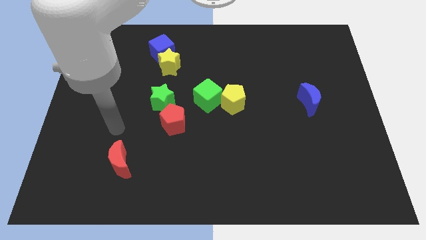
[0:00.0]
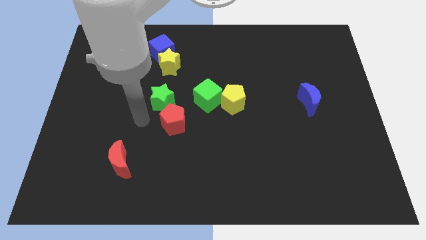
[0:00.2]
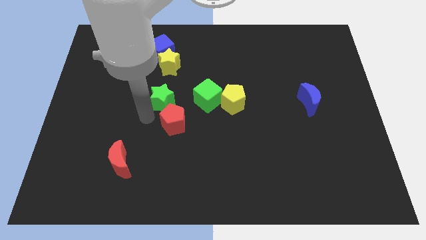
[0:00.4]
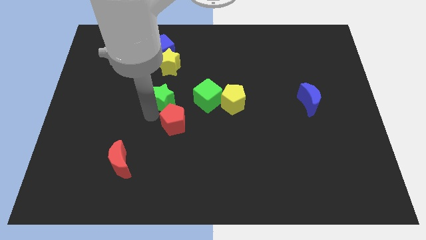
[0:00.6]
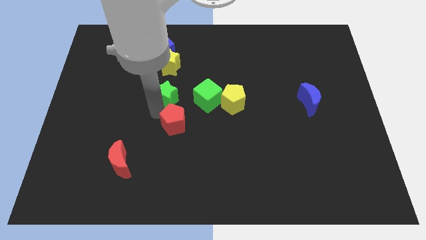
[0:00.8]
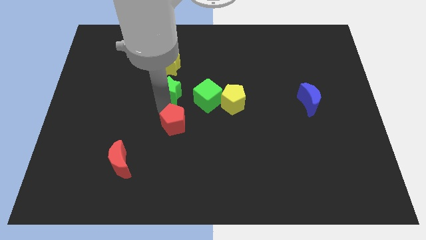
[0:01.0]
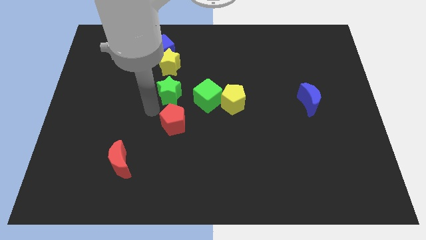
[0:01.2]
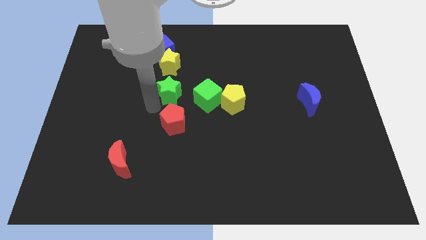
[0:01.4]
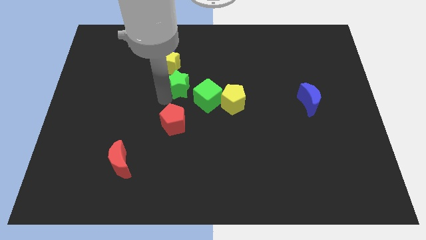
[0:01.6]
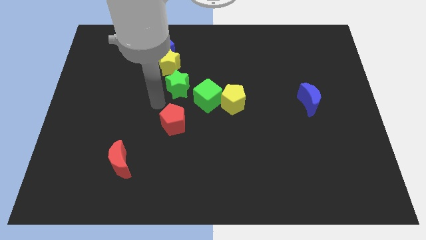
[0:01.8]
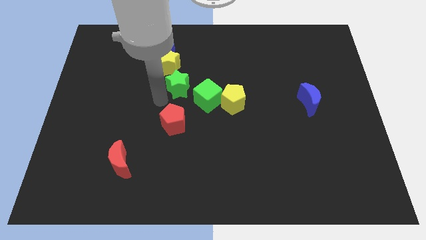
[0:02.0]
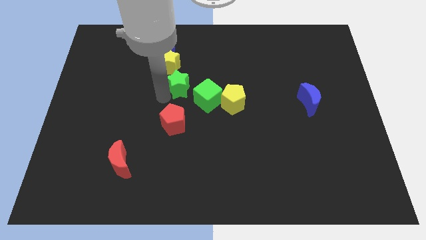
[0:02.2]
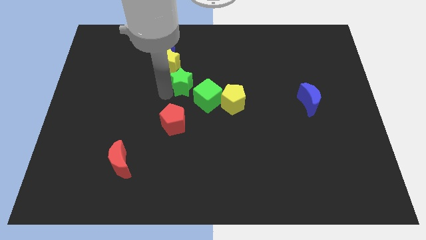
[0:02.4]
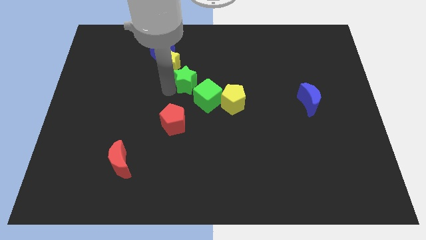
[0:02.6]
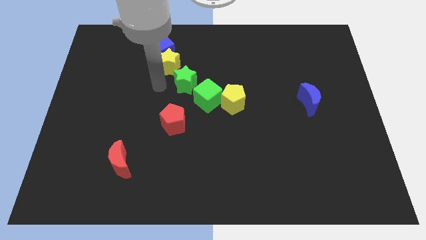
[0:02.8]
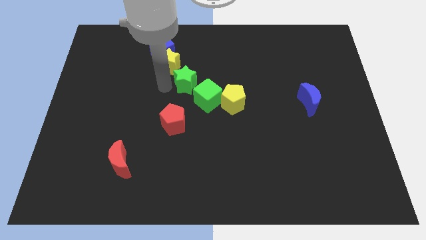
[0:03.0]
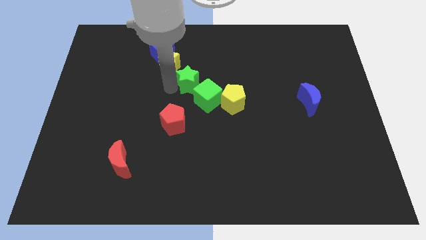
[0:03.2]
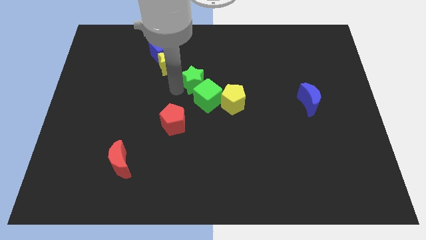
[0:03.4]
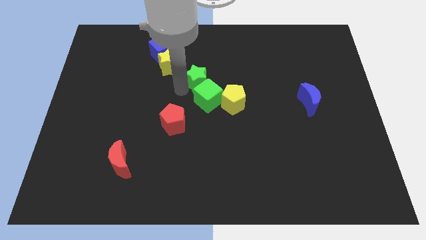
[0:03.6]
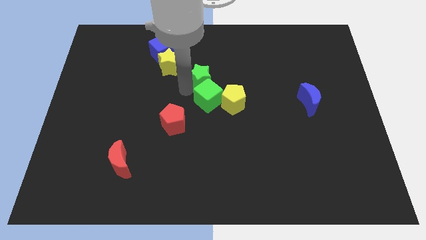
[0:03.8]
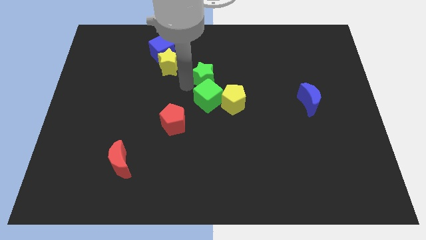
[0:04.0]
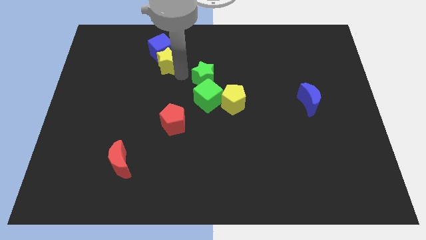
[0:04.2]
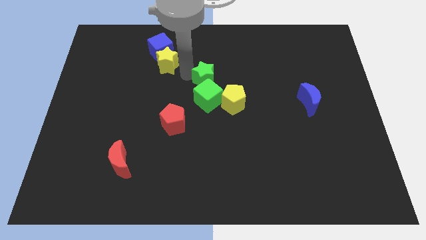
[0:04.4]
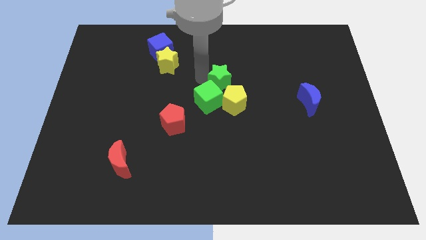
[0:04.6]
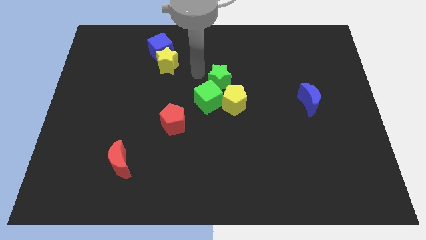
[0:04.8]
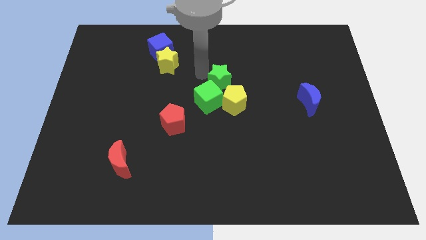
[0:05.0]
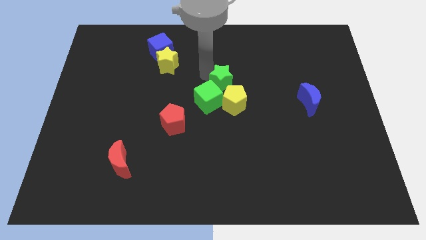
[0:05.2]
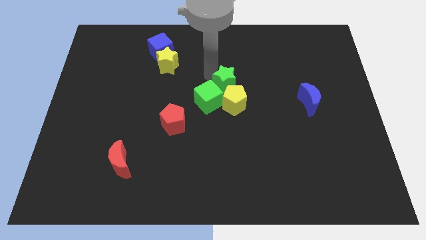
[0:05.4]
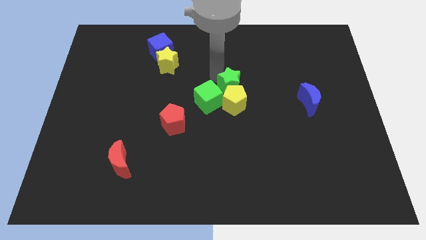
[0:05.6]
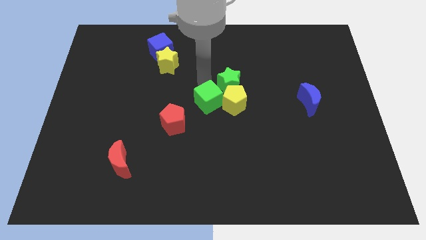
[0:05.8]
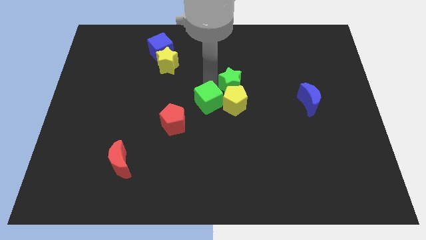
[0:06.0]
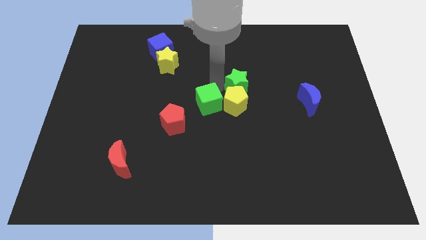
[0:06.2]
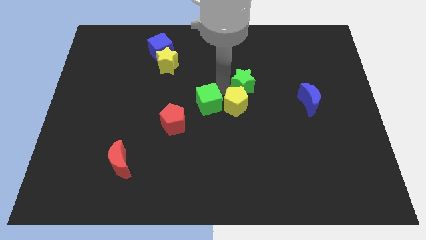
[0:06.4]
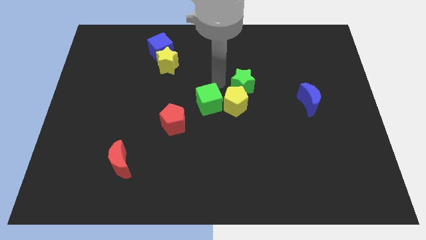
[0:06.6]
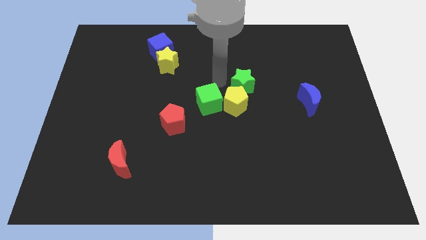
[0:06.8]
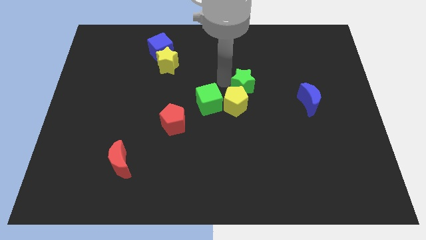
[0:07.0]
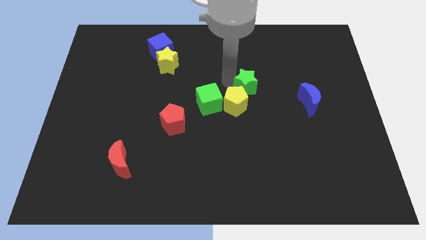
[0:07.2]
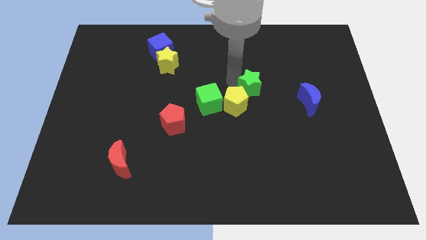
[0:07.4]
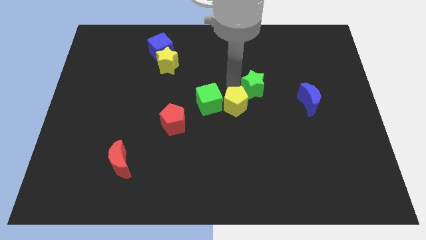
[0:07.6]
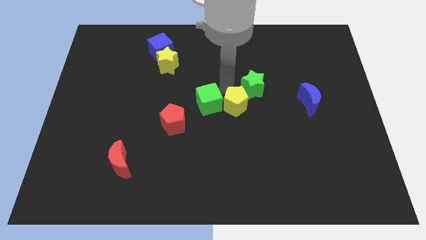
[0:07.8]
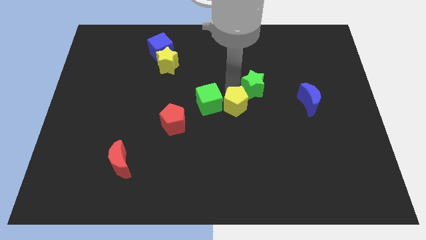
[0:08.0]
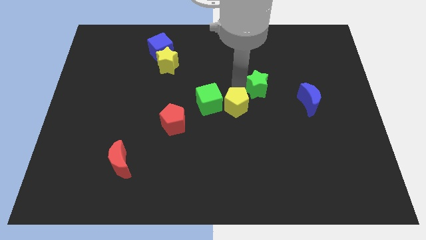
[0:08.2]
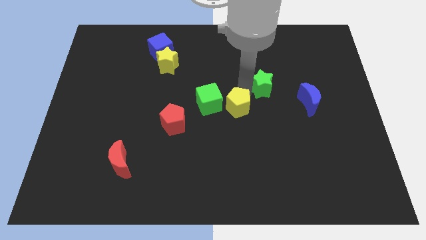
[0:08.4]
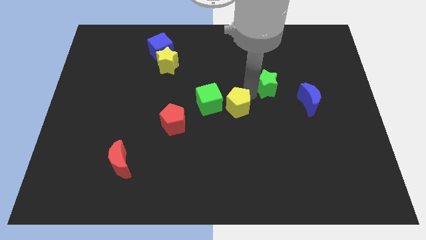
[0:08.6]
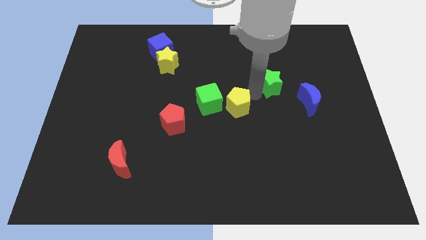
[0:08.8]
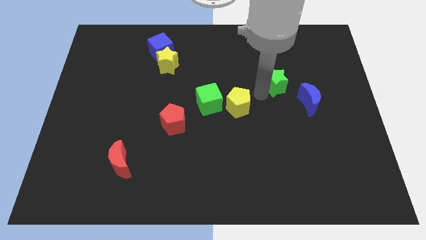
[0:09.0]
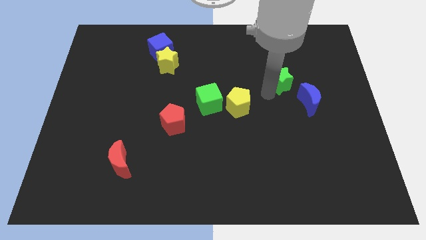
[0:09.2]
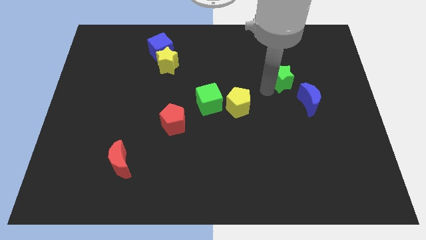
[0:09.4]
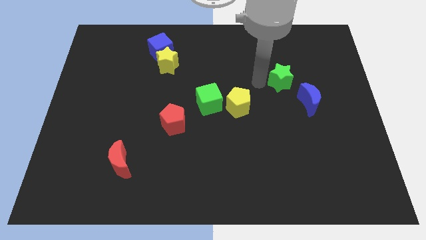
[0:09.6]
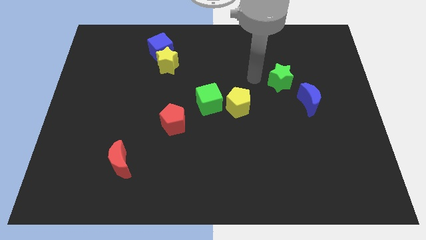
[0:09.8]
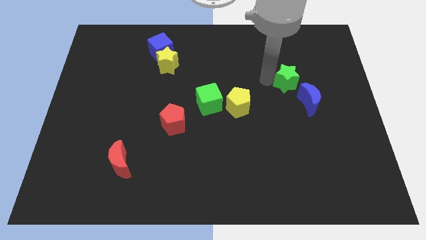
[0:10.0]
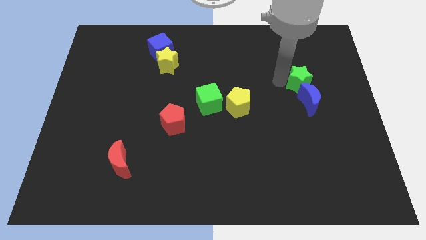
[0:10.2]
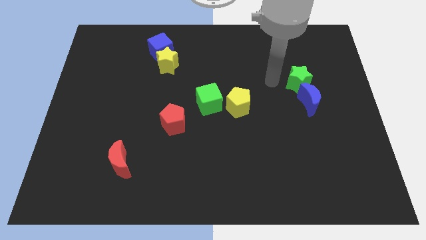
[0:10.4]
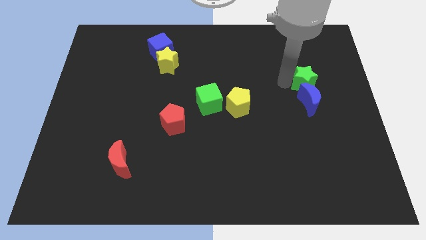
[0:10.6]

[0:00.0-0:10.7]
push the green star to the top right side of the blue moon
